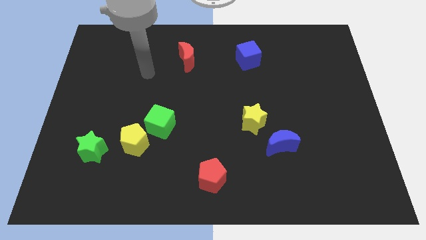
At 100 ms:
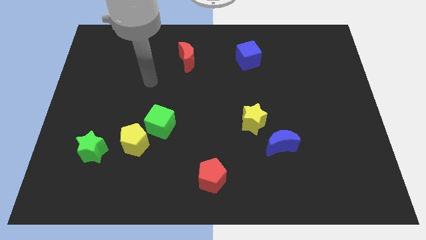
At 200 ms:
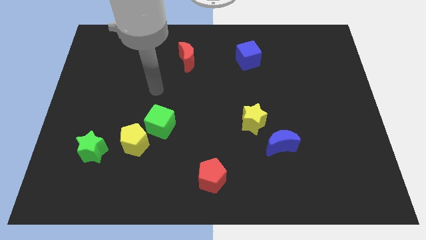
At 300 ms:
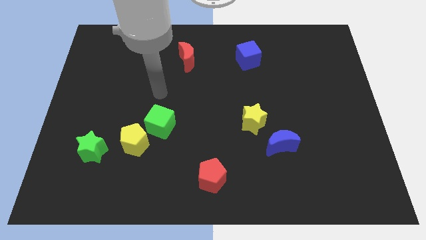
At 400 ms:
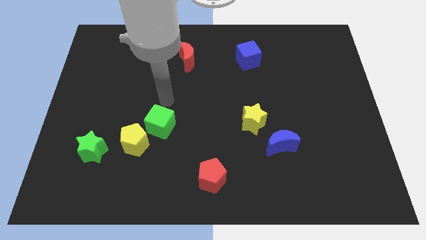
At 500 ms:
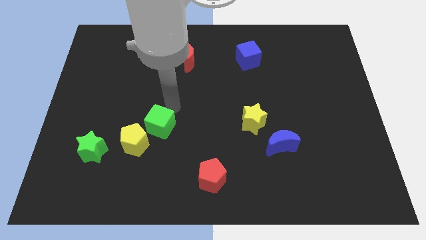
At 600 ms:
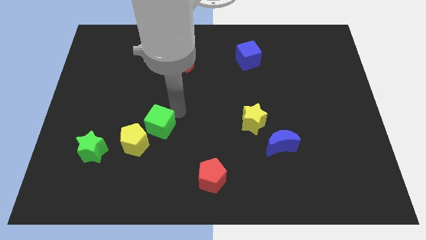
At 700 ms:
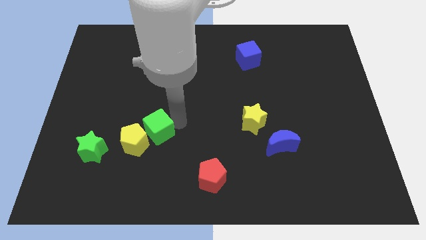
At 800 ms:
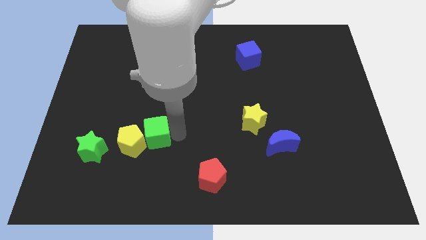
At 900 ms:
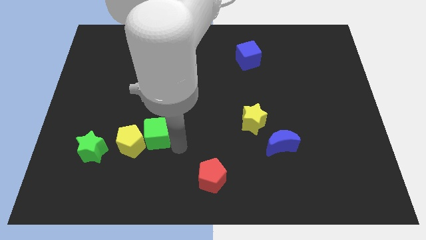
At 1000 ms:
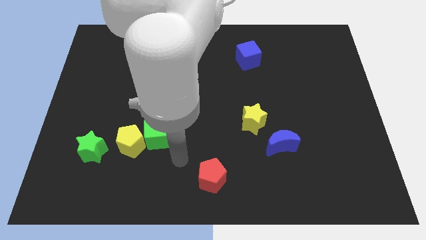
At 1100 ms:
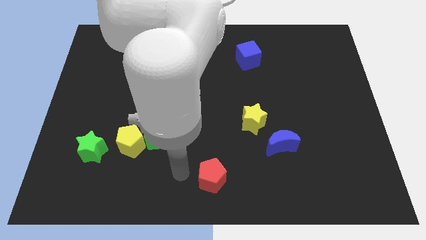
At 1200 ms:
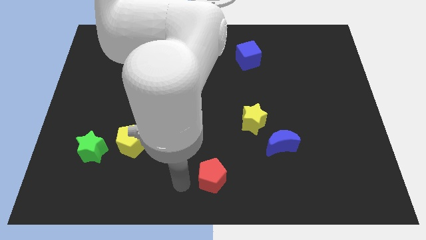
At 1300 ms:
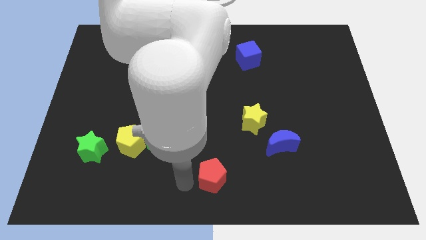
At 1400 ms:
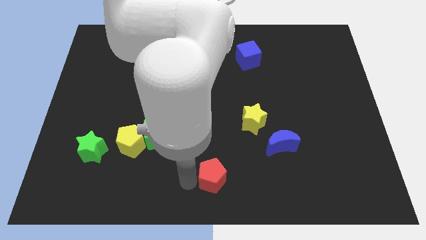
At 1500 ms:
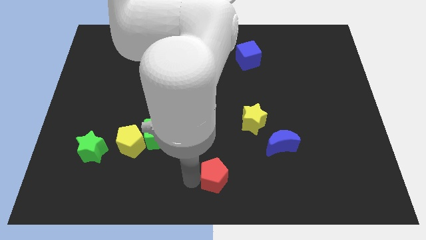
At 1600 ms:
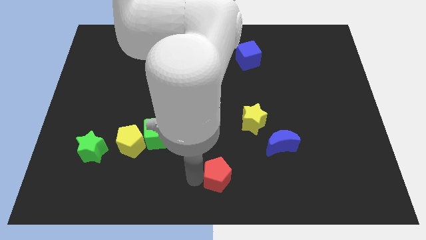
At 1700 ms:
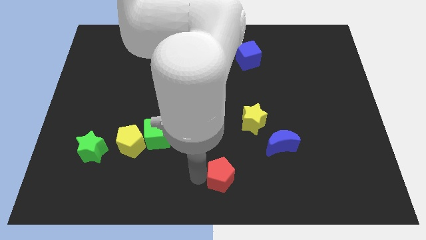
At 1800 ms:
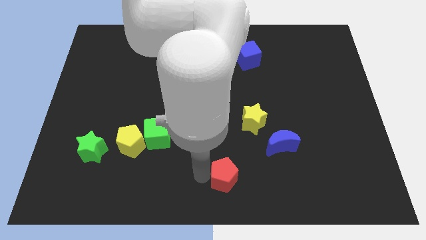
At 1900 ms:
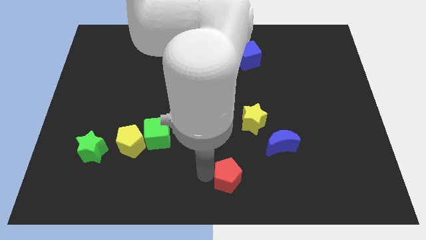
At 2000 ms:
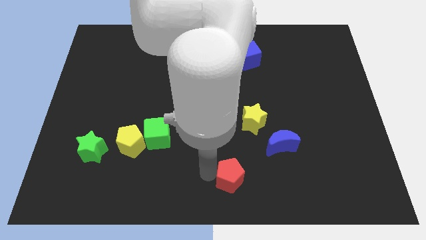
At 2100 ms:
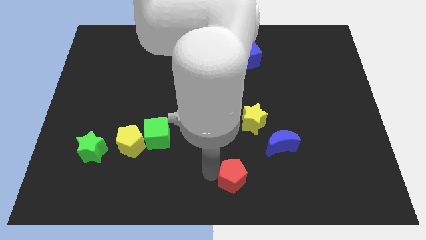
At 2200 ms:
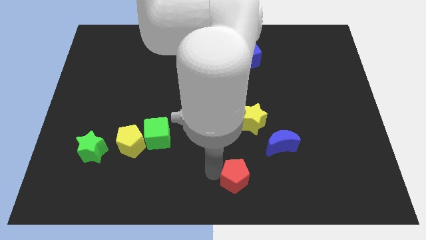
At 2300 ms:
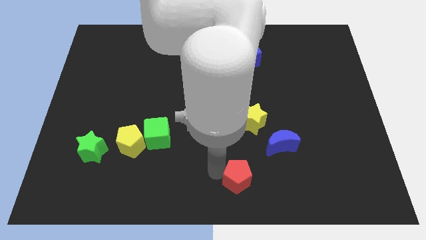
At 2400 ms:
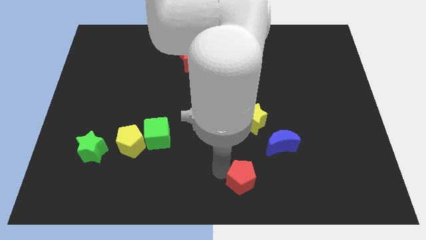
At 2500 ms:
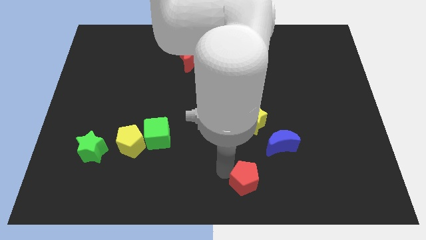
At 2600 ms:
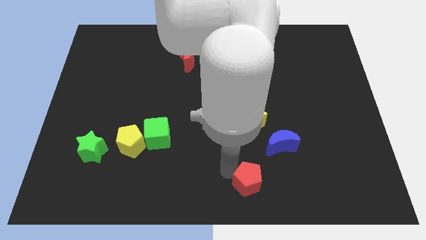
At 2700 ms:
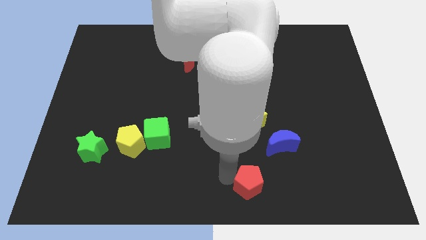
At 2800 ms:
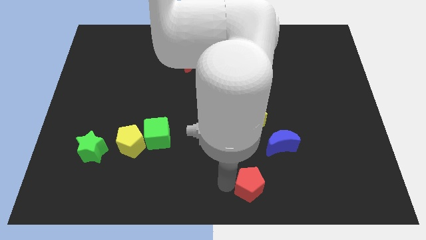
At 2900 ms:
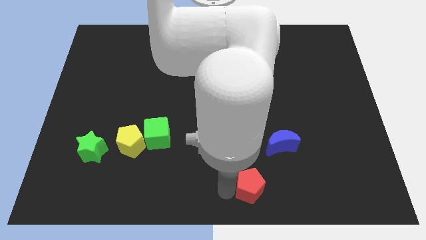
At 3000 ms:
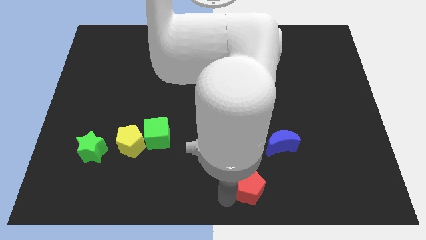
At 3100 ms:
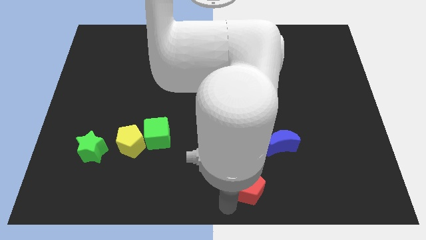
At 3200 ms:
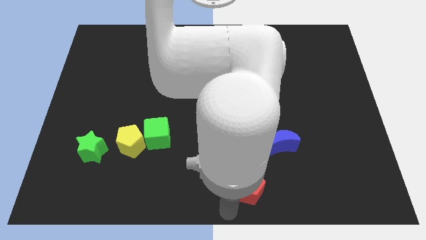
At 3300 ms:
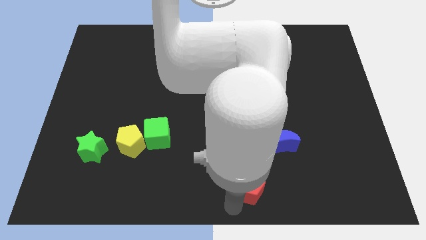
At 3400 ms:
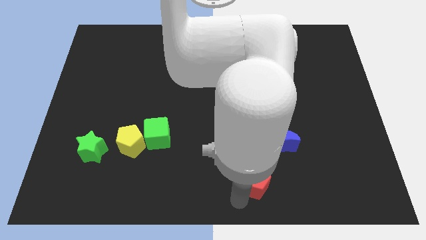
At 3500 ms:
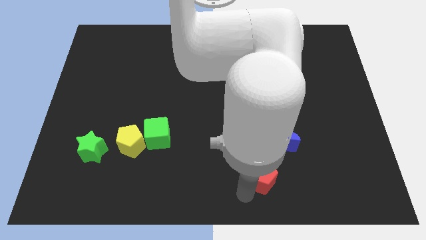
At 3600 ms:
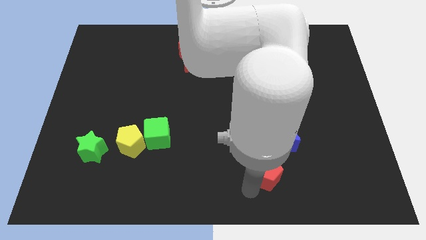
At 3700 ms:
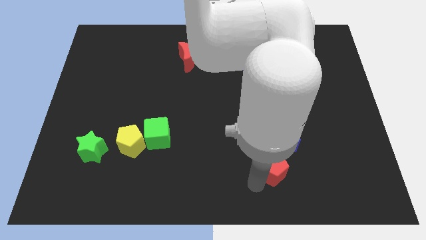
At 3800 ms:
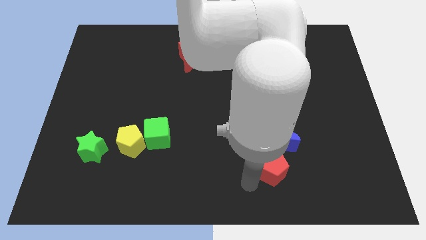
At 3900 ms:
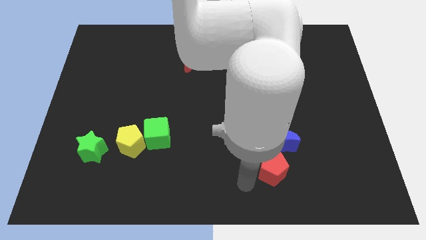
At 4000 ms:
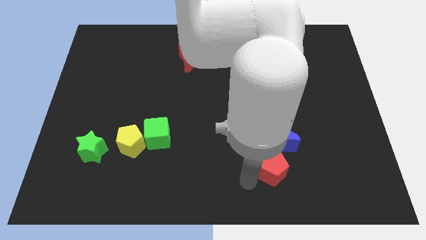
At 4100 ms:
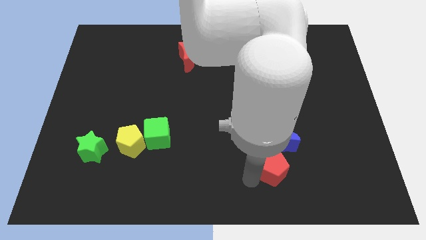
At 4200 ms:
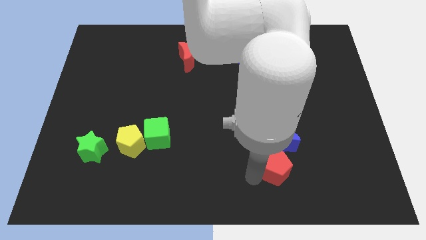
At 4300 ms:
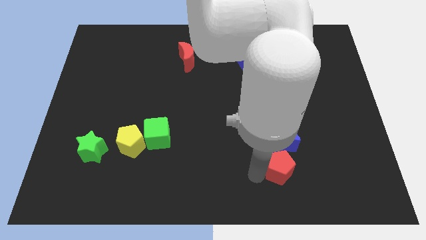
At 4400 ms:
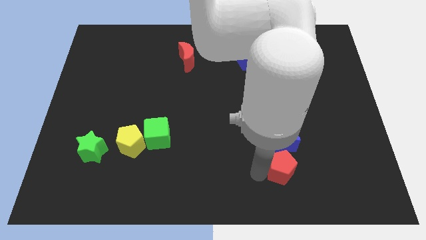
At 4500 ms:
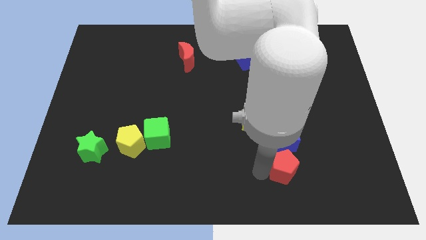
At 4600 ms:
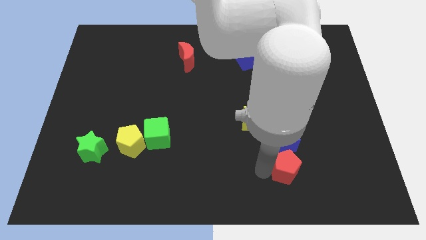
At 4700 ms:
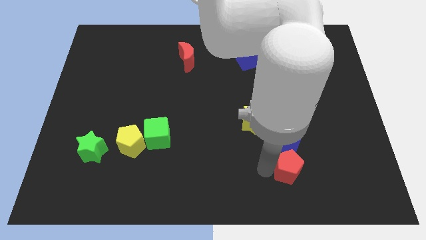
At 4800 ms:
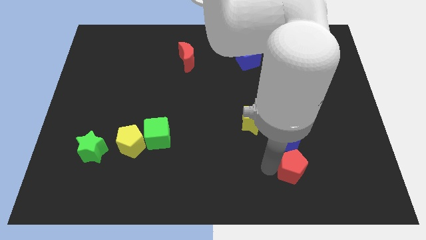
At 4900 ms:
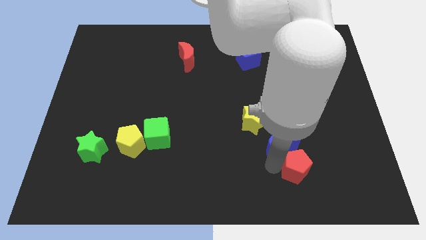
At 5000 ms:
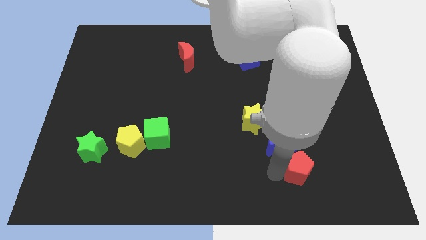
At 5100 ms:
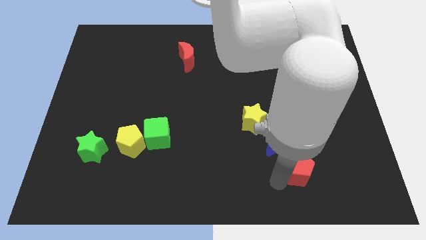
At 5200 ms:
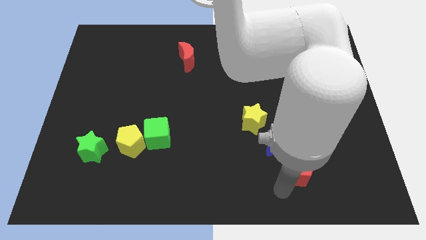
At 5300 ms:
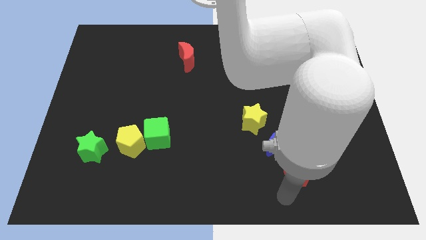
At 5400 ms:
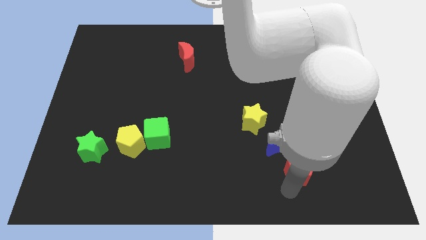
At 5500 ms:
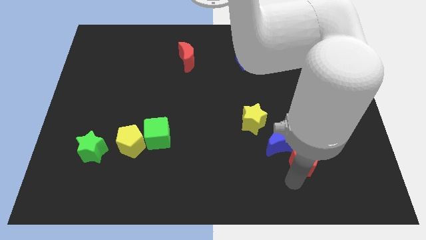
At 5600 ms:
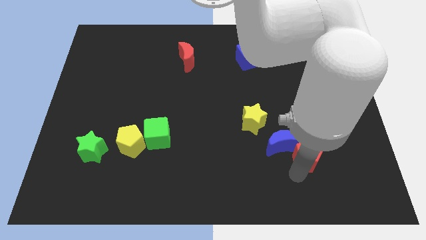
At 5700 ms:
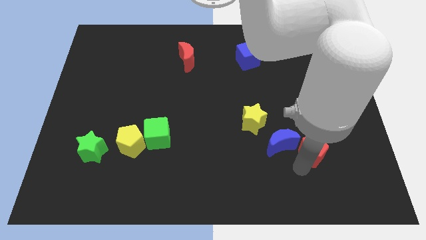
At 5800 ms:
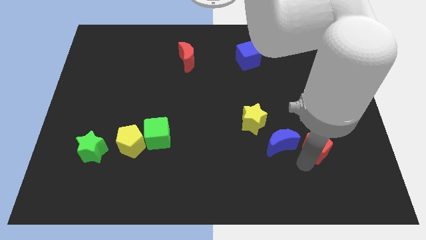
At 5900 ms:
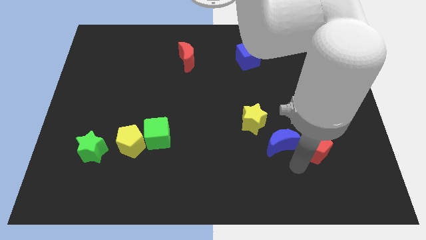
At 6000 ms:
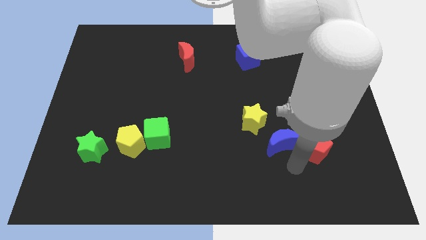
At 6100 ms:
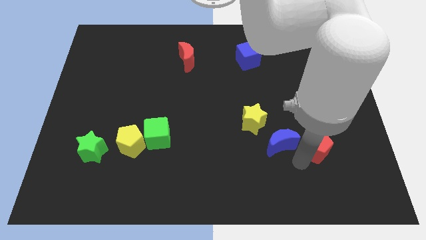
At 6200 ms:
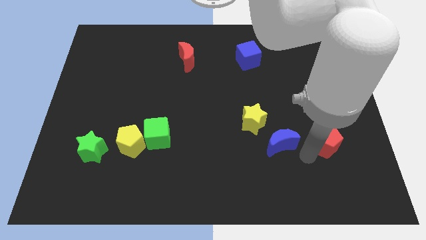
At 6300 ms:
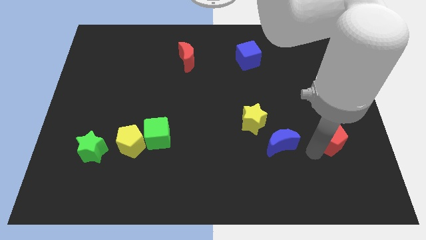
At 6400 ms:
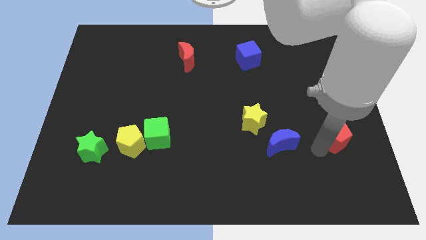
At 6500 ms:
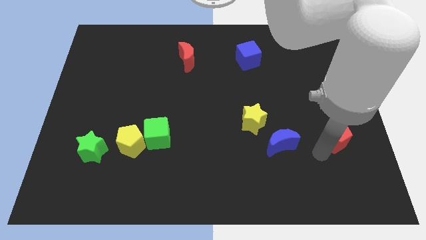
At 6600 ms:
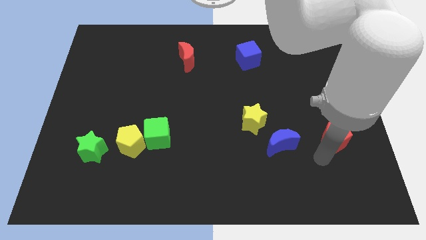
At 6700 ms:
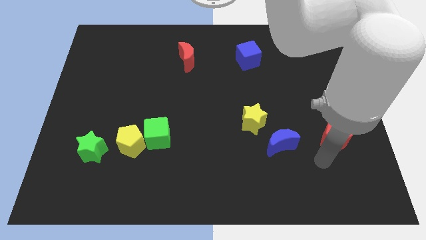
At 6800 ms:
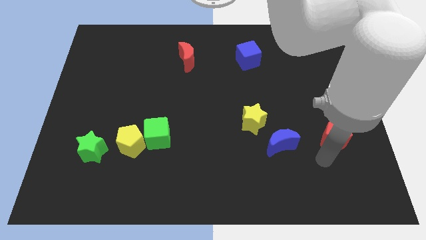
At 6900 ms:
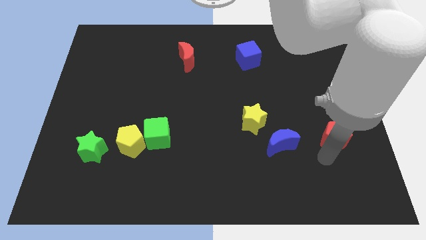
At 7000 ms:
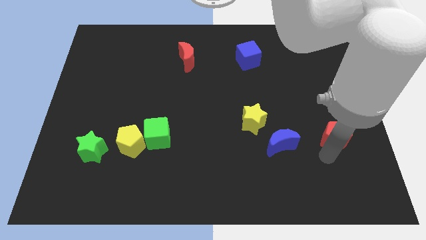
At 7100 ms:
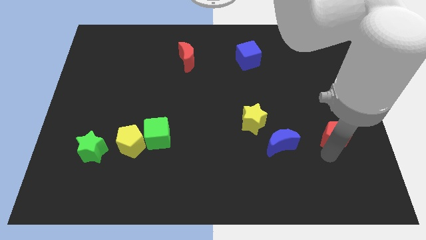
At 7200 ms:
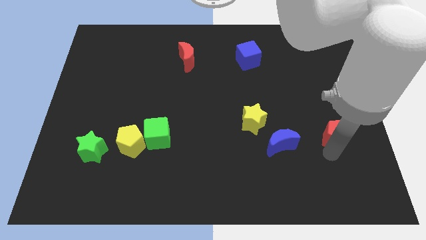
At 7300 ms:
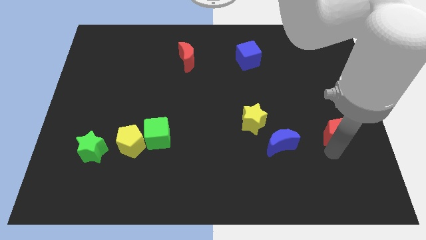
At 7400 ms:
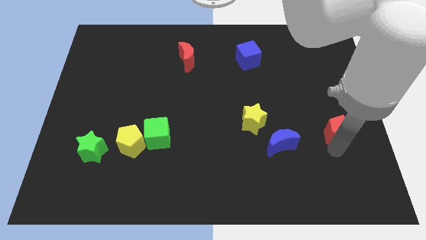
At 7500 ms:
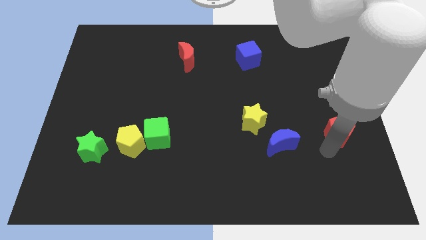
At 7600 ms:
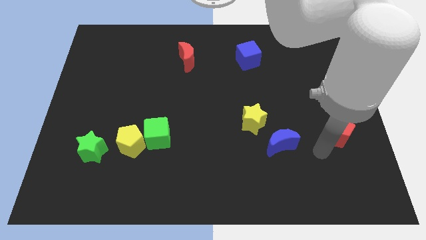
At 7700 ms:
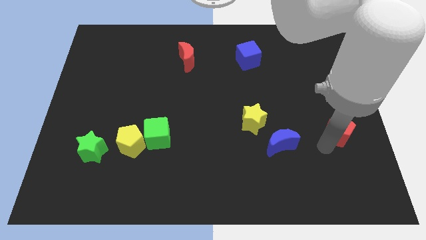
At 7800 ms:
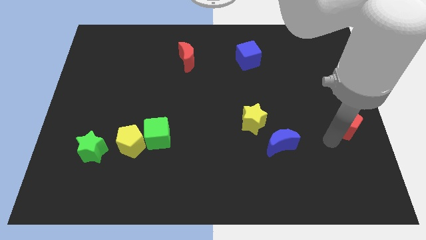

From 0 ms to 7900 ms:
push the red pentagon to the center right
